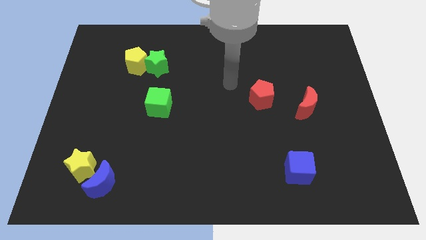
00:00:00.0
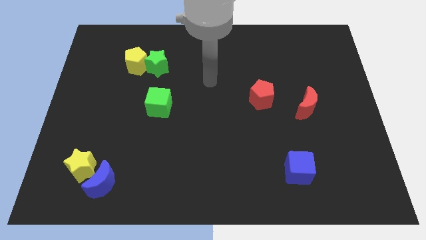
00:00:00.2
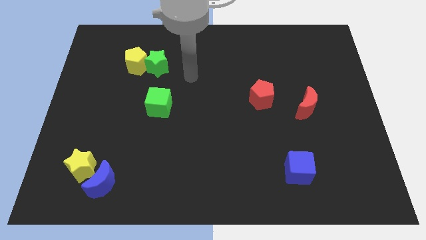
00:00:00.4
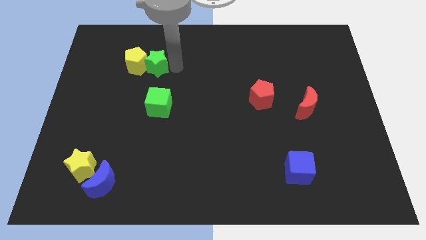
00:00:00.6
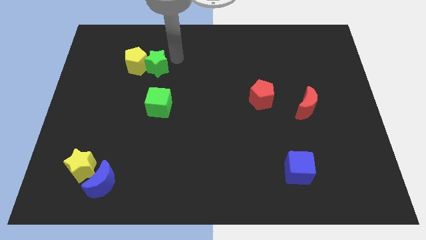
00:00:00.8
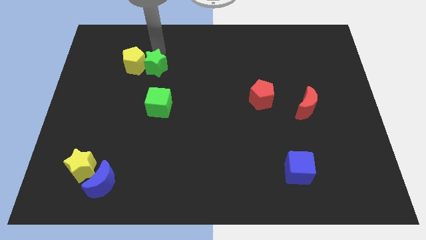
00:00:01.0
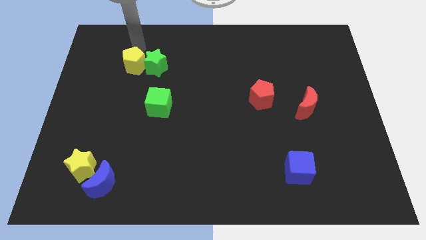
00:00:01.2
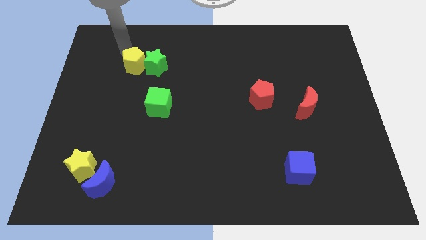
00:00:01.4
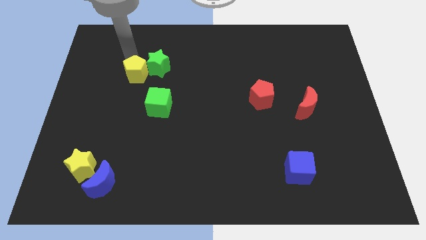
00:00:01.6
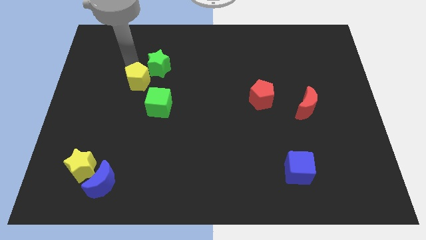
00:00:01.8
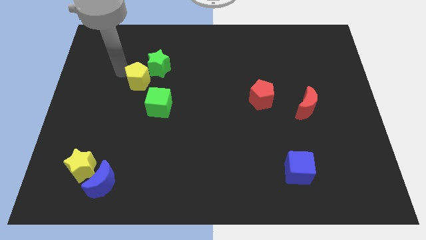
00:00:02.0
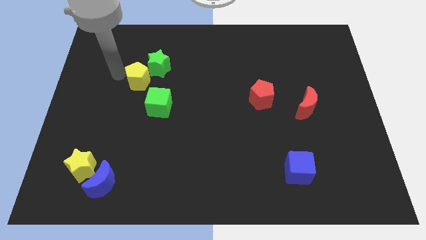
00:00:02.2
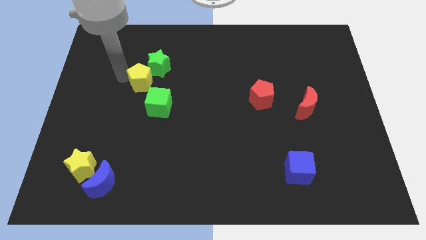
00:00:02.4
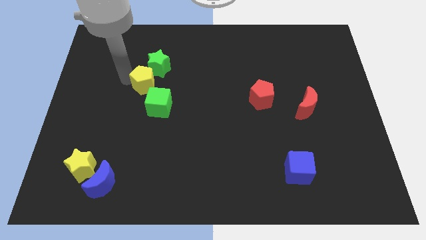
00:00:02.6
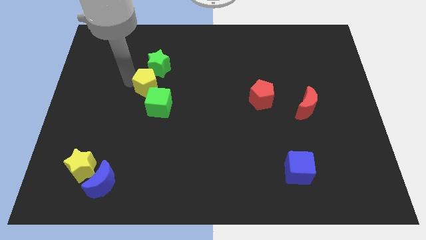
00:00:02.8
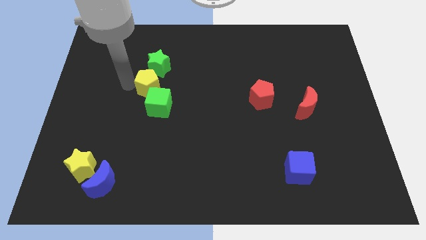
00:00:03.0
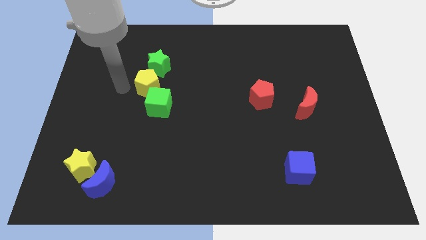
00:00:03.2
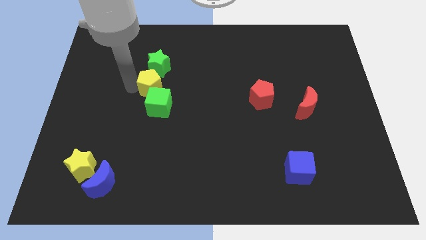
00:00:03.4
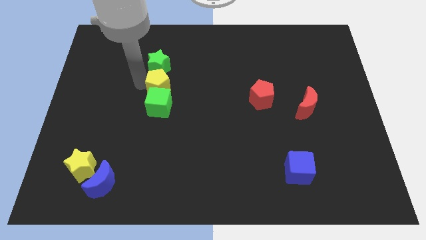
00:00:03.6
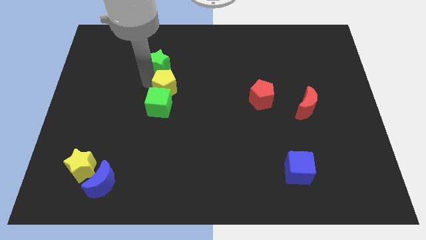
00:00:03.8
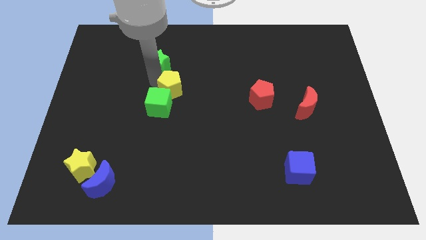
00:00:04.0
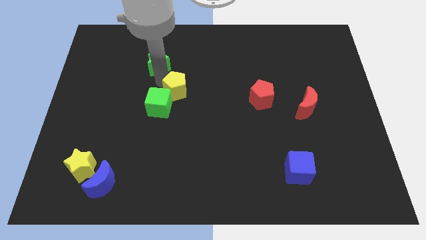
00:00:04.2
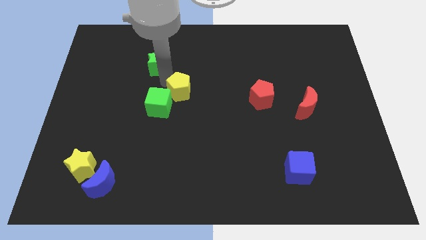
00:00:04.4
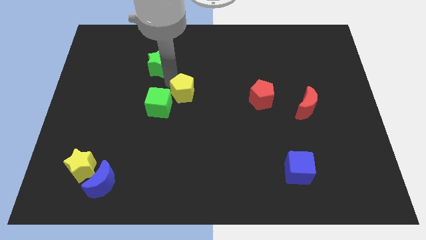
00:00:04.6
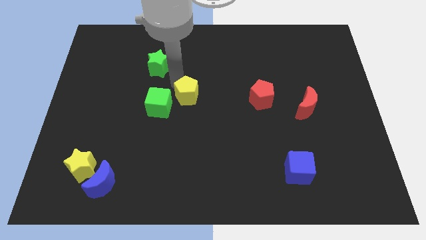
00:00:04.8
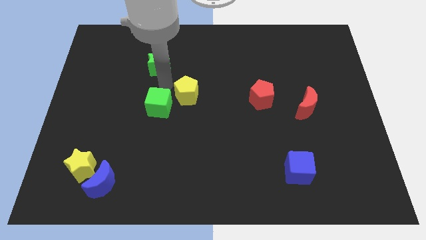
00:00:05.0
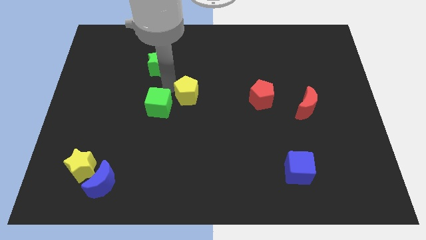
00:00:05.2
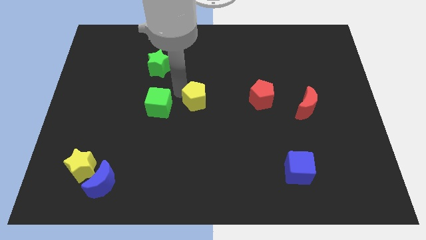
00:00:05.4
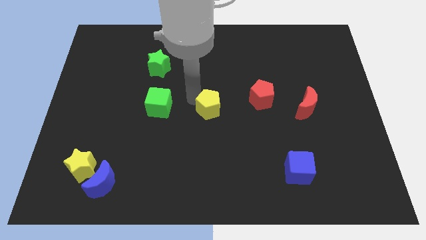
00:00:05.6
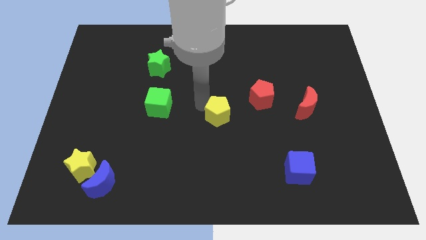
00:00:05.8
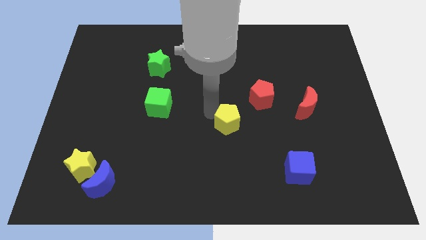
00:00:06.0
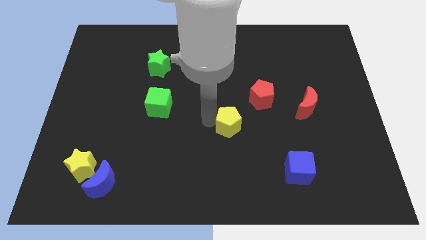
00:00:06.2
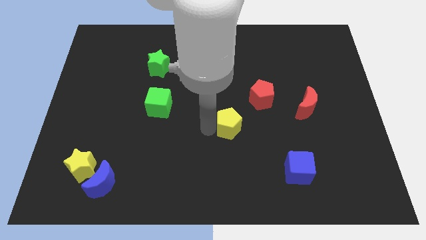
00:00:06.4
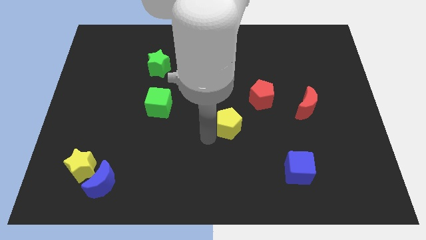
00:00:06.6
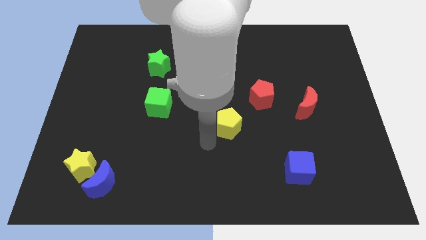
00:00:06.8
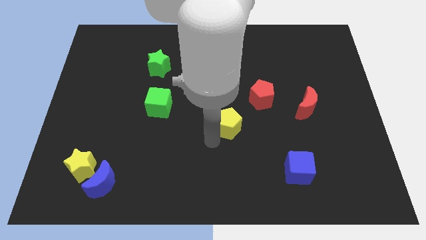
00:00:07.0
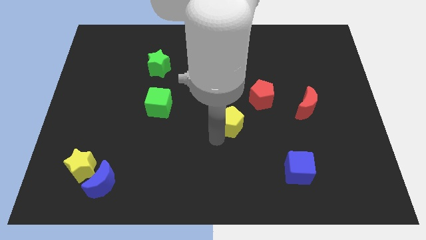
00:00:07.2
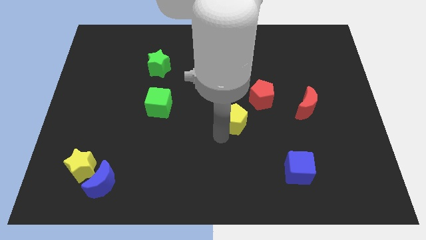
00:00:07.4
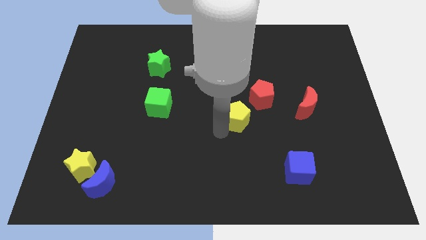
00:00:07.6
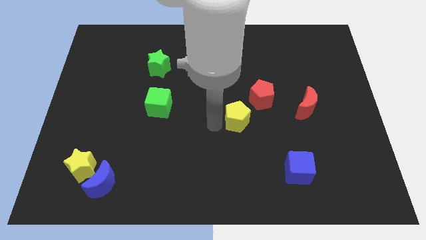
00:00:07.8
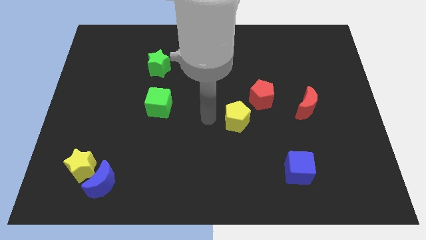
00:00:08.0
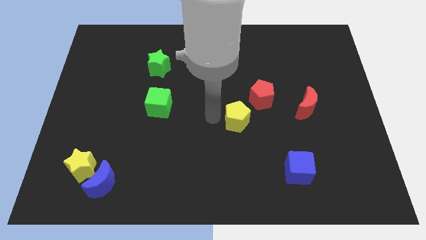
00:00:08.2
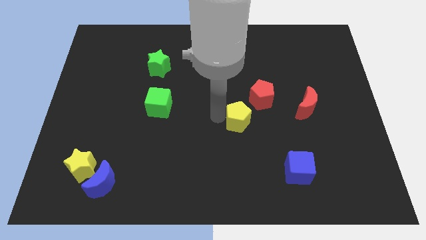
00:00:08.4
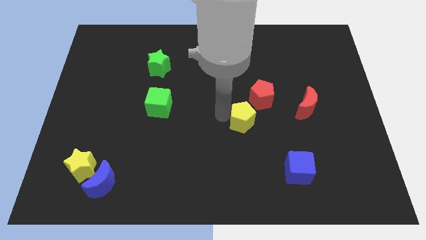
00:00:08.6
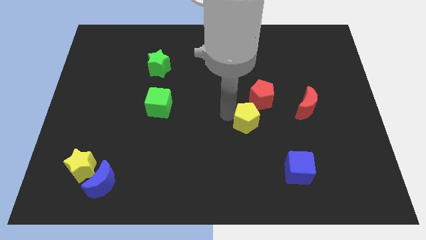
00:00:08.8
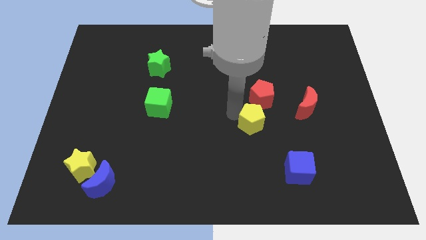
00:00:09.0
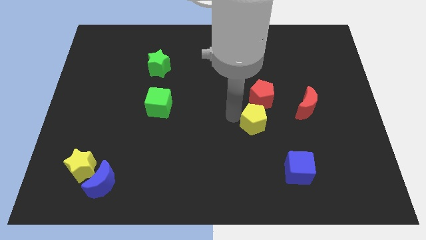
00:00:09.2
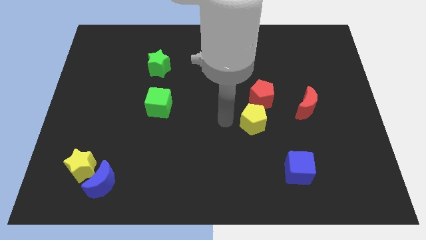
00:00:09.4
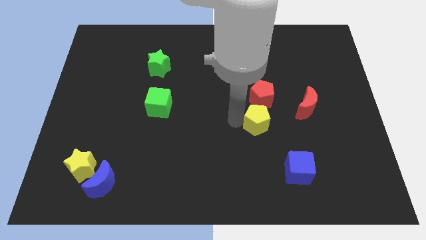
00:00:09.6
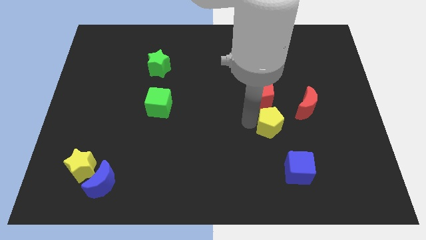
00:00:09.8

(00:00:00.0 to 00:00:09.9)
put the yellow pentagon above the blue cube

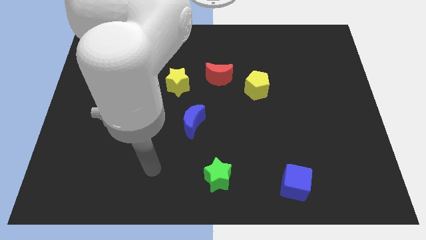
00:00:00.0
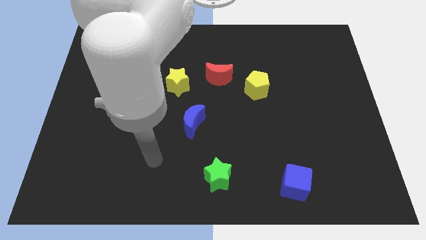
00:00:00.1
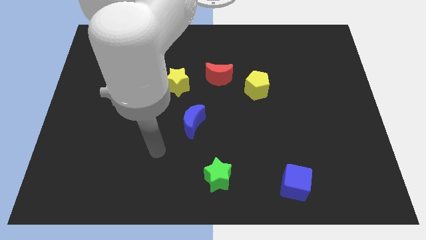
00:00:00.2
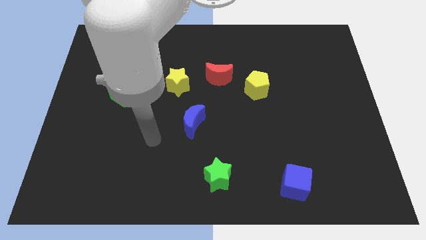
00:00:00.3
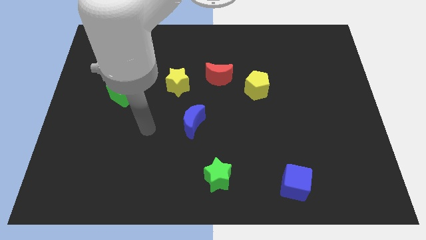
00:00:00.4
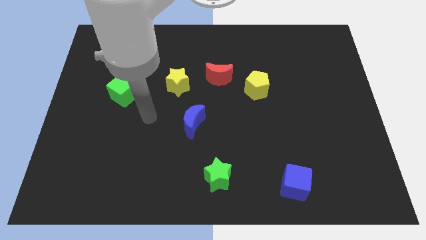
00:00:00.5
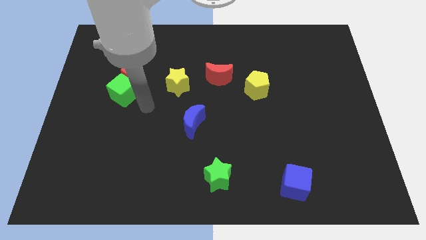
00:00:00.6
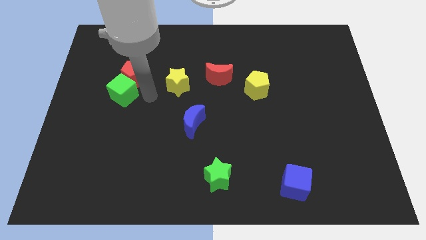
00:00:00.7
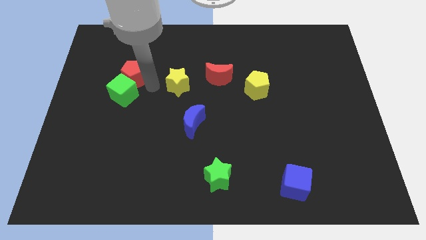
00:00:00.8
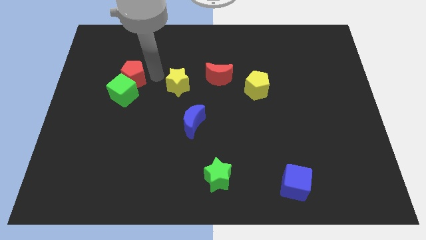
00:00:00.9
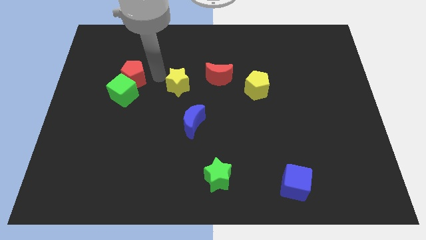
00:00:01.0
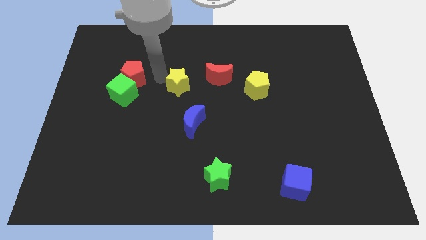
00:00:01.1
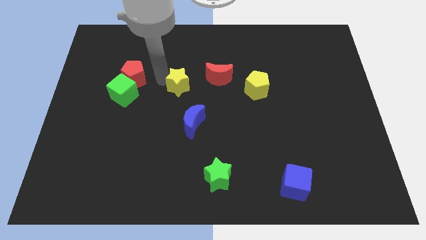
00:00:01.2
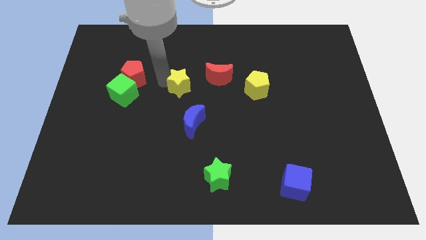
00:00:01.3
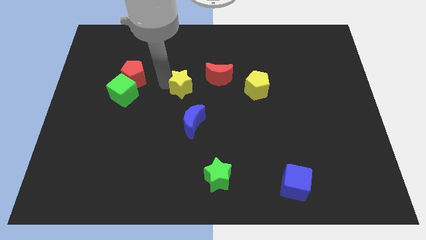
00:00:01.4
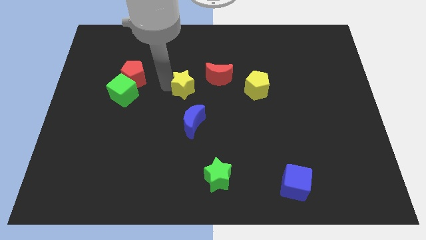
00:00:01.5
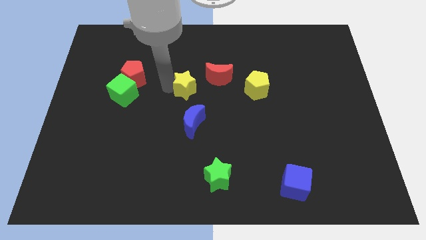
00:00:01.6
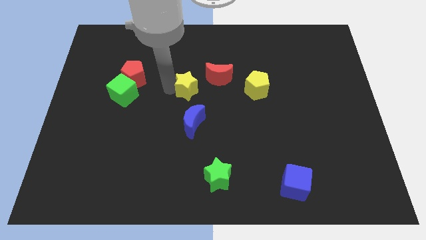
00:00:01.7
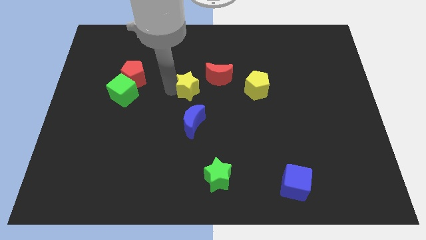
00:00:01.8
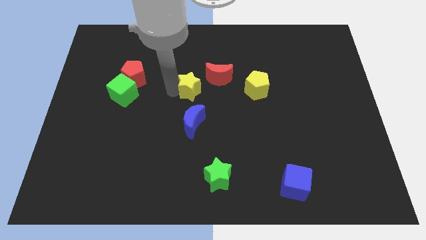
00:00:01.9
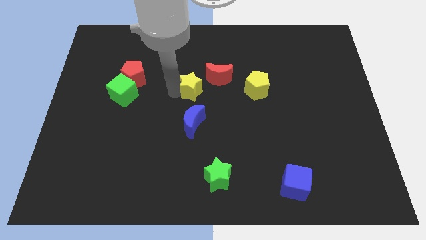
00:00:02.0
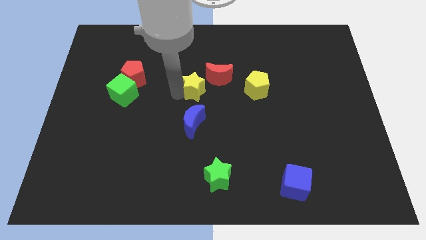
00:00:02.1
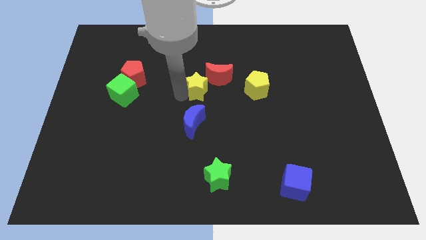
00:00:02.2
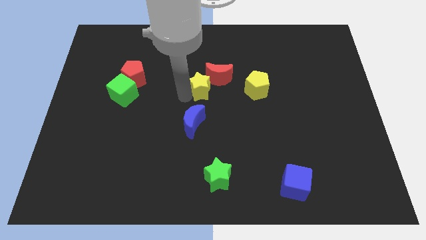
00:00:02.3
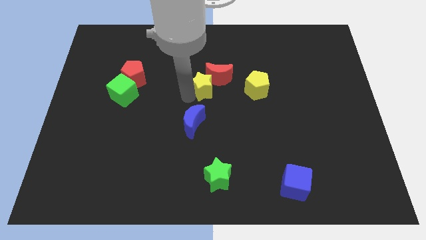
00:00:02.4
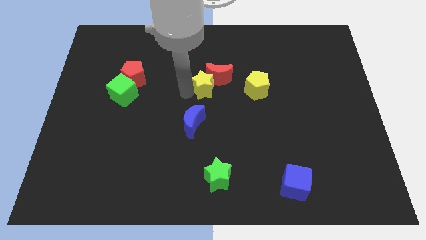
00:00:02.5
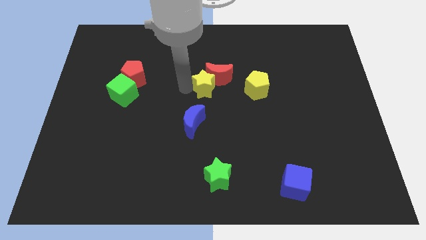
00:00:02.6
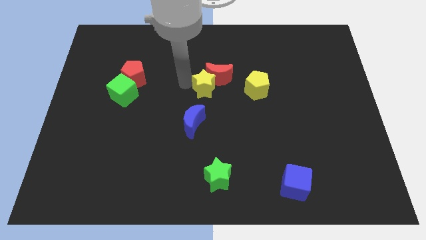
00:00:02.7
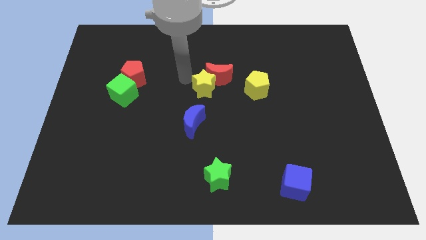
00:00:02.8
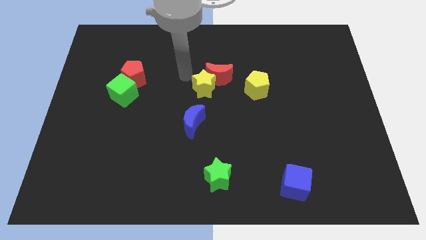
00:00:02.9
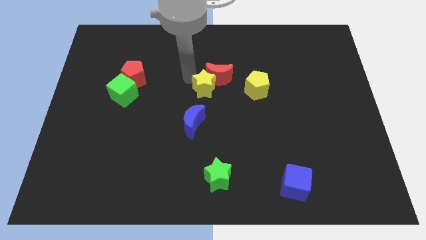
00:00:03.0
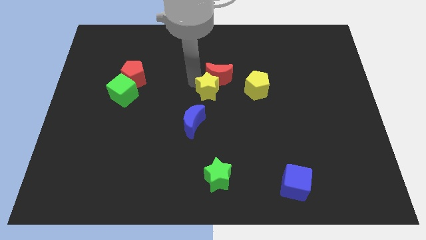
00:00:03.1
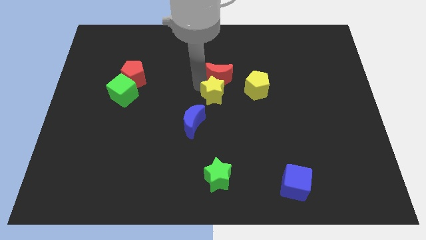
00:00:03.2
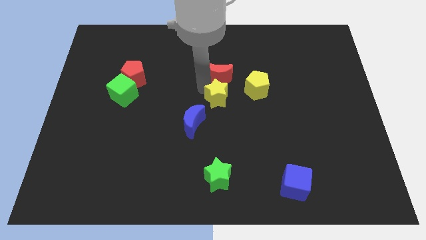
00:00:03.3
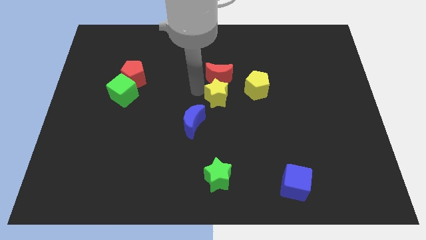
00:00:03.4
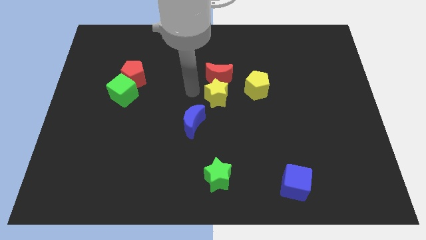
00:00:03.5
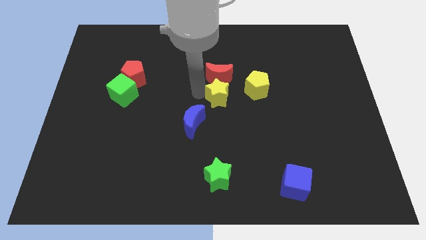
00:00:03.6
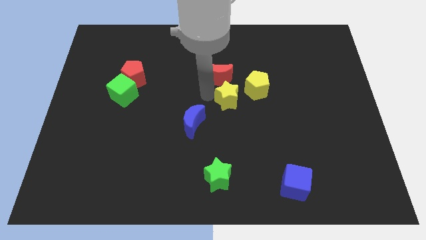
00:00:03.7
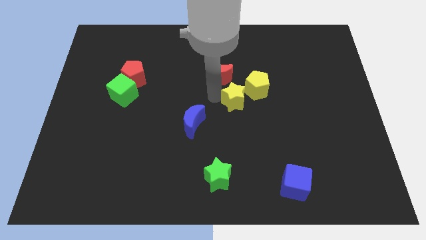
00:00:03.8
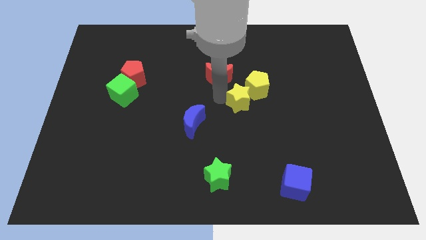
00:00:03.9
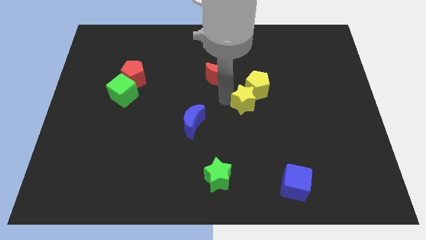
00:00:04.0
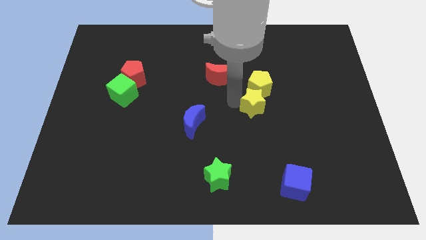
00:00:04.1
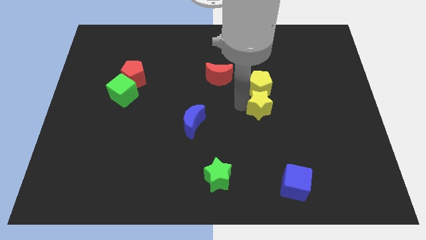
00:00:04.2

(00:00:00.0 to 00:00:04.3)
put the yellow star diagonally down and to the right of the yellow pentagon
